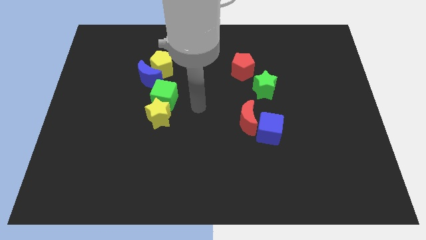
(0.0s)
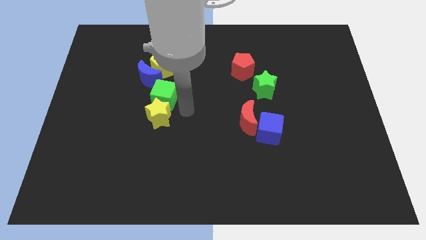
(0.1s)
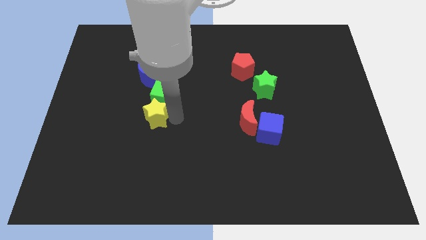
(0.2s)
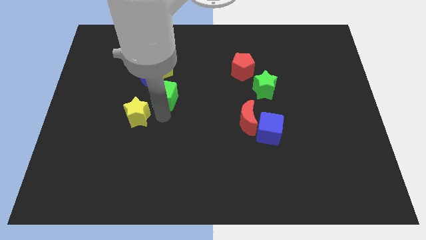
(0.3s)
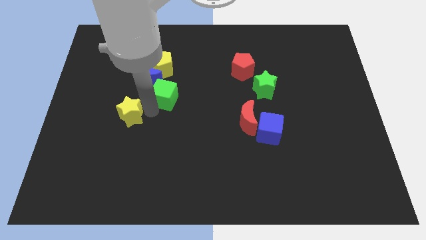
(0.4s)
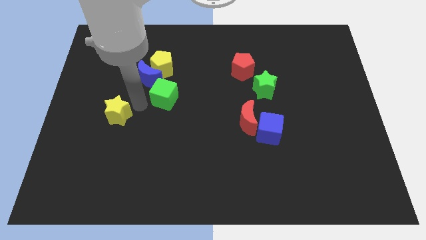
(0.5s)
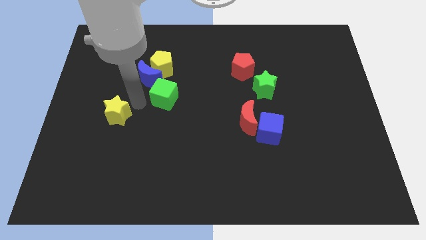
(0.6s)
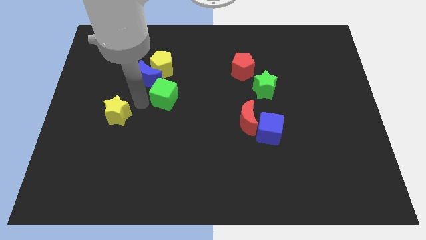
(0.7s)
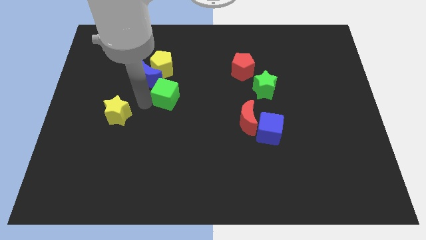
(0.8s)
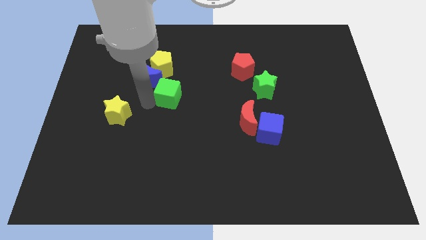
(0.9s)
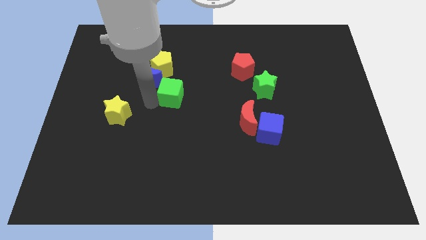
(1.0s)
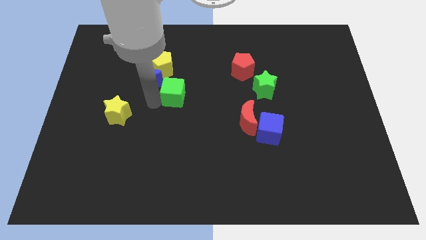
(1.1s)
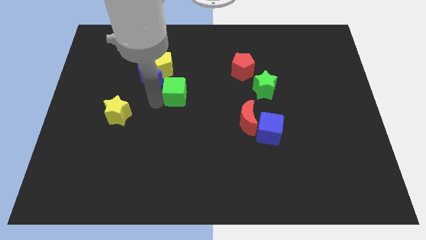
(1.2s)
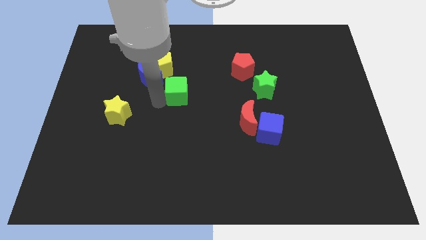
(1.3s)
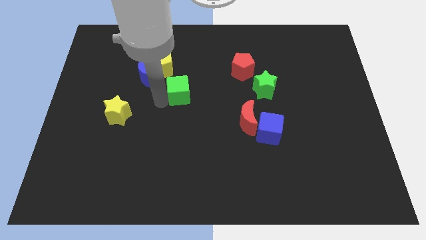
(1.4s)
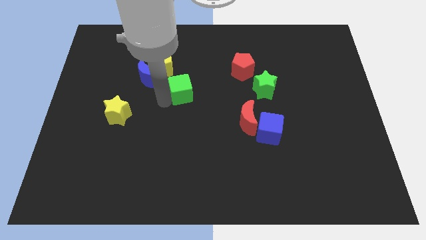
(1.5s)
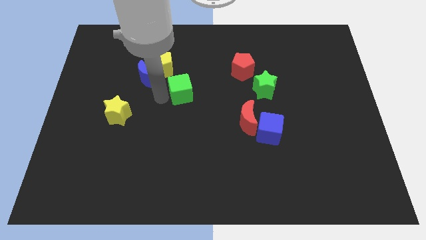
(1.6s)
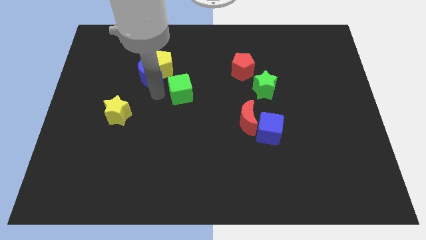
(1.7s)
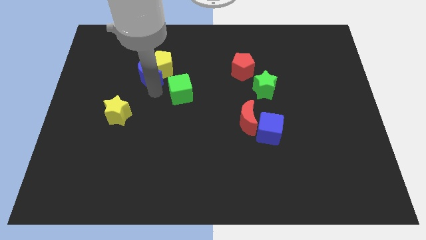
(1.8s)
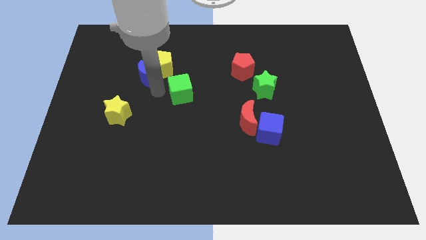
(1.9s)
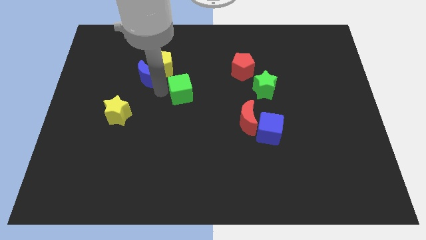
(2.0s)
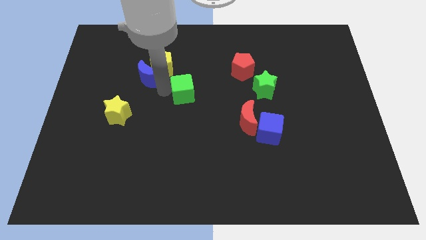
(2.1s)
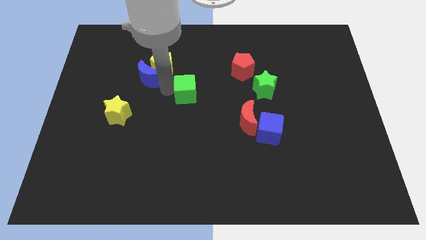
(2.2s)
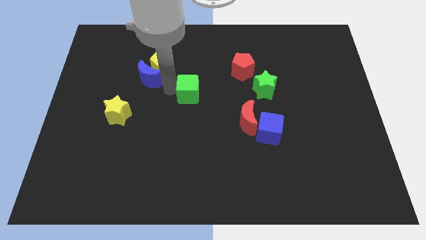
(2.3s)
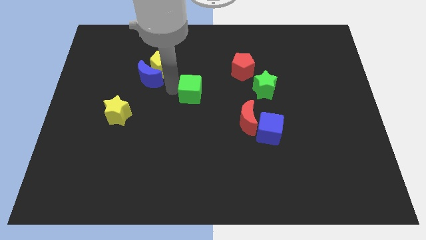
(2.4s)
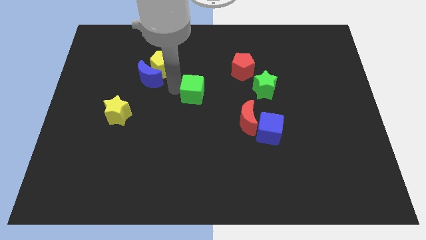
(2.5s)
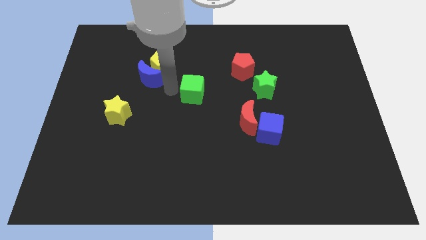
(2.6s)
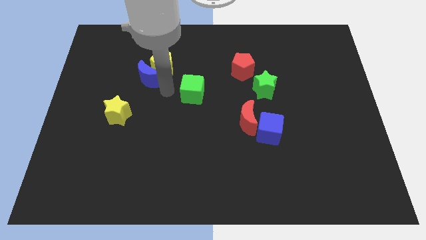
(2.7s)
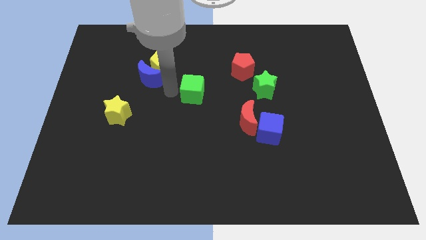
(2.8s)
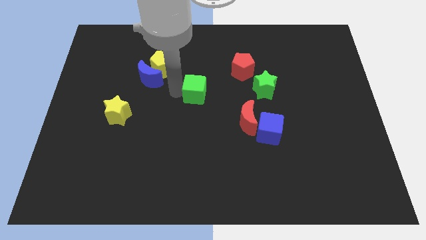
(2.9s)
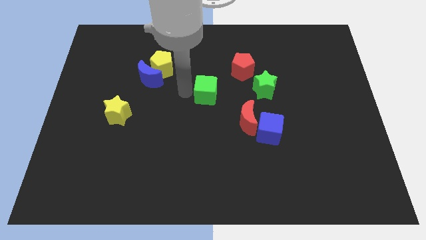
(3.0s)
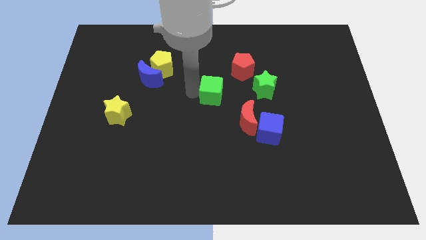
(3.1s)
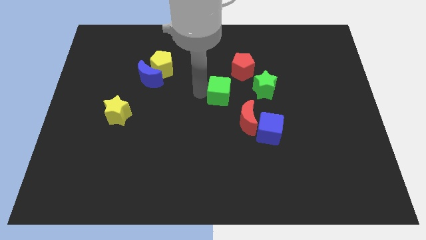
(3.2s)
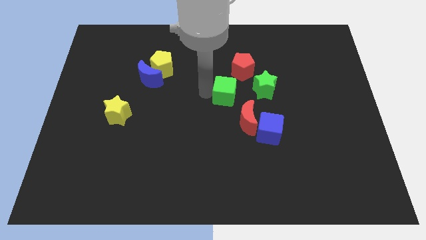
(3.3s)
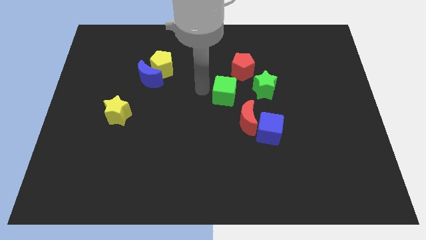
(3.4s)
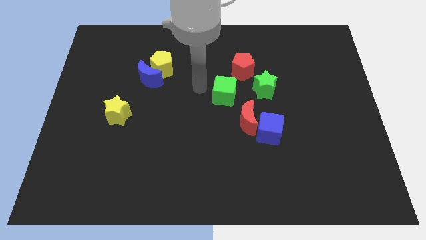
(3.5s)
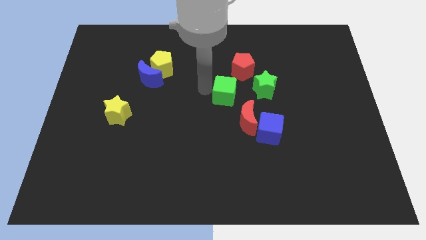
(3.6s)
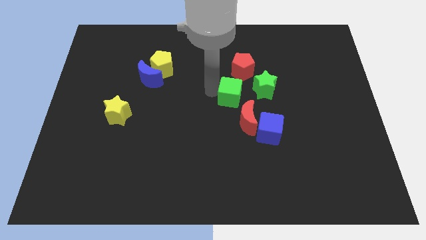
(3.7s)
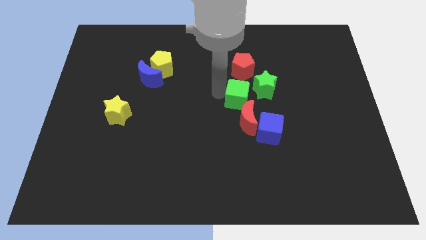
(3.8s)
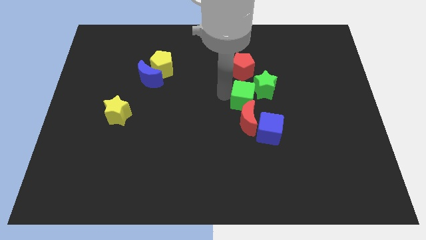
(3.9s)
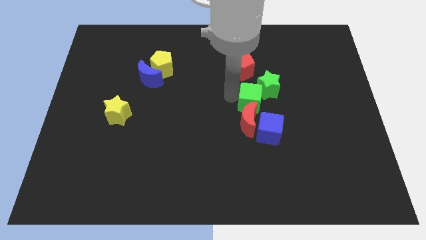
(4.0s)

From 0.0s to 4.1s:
slide the green cube right

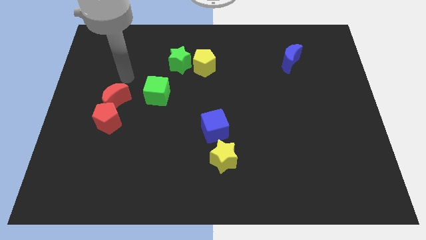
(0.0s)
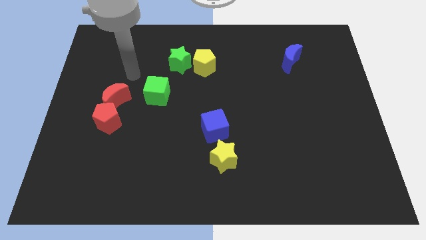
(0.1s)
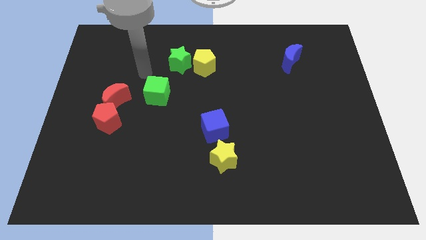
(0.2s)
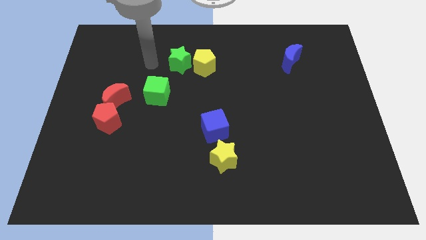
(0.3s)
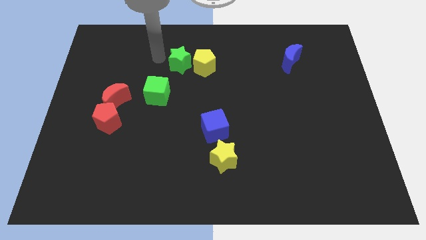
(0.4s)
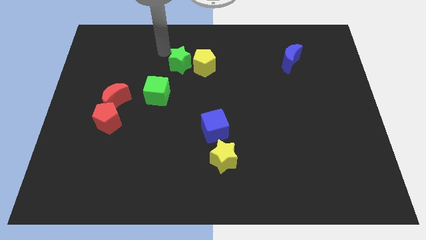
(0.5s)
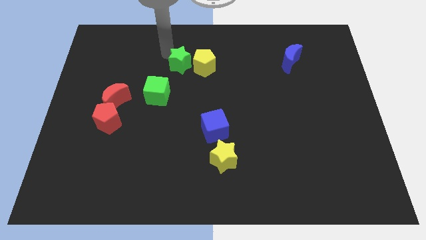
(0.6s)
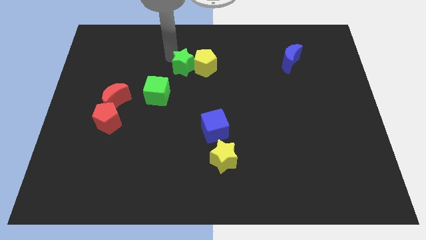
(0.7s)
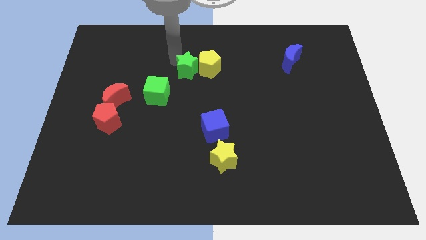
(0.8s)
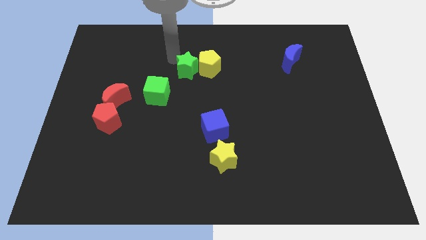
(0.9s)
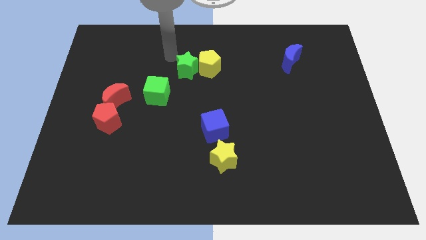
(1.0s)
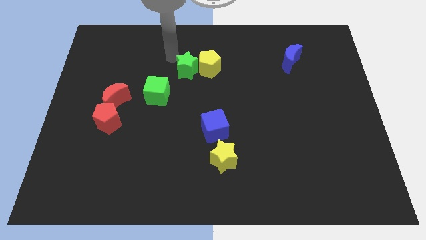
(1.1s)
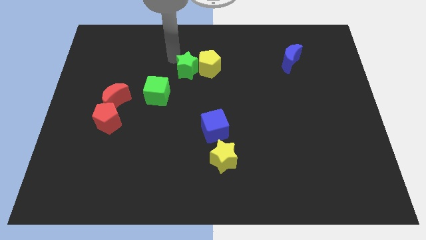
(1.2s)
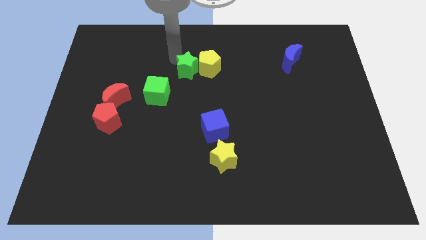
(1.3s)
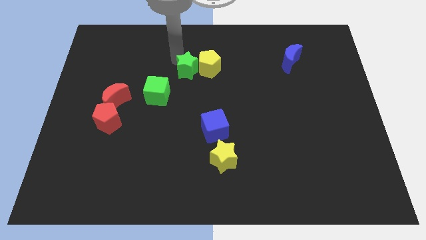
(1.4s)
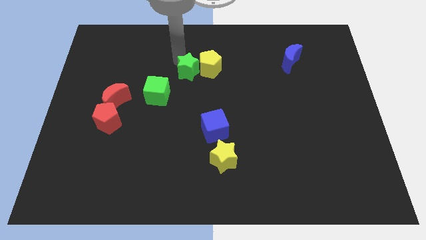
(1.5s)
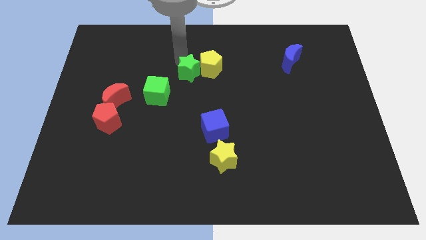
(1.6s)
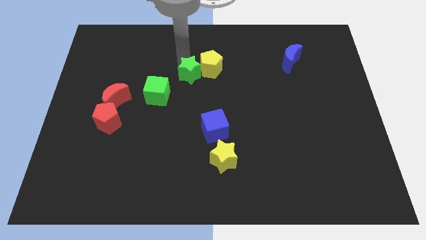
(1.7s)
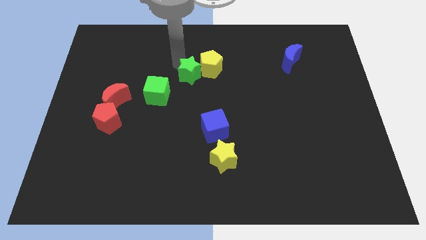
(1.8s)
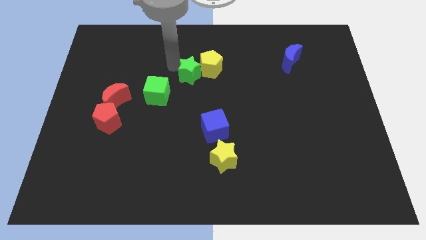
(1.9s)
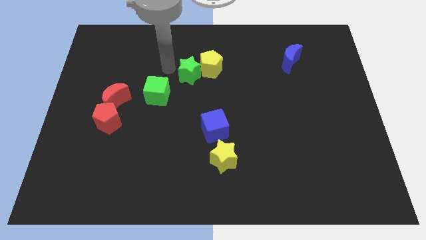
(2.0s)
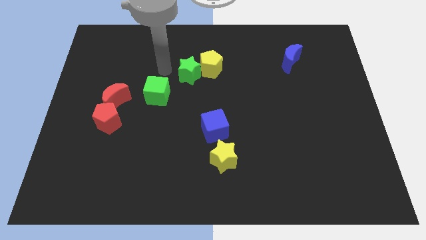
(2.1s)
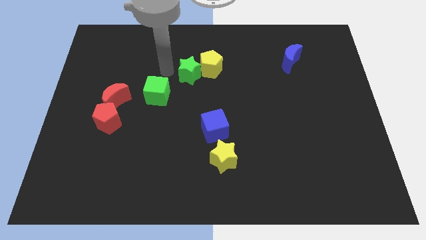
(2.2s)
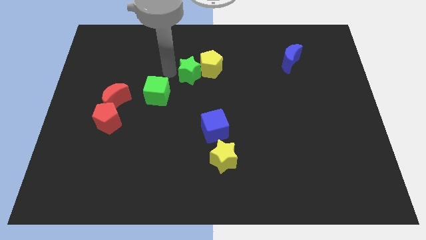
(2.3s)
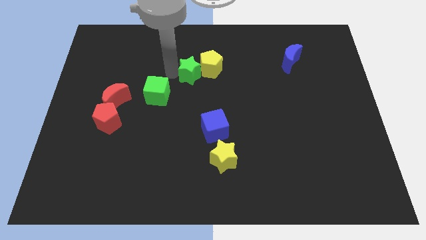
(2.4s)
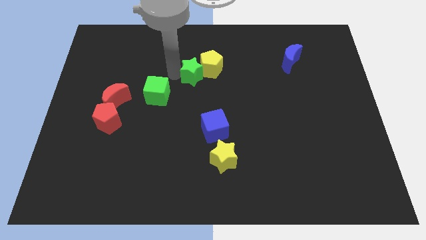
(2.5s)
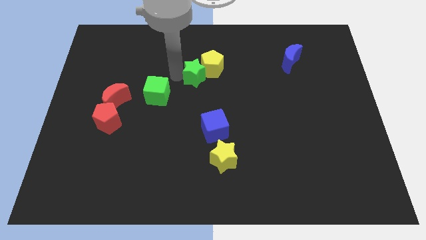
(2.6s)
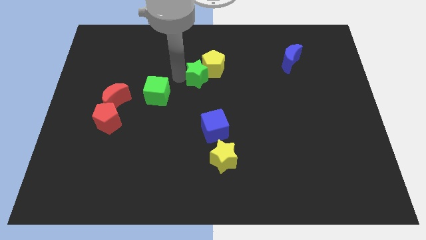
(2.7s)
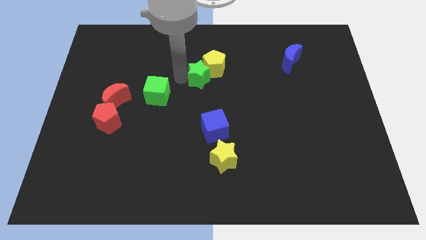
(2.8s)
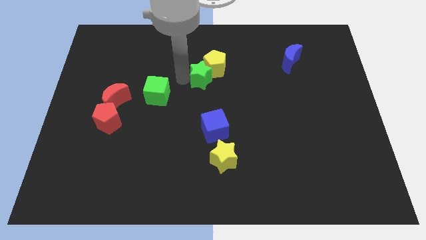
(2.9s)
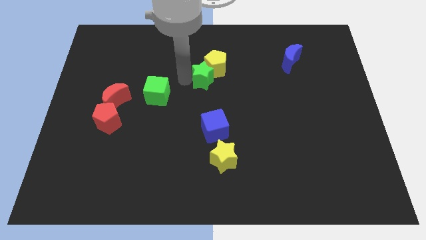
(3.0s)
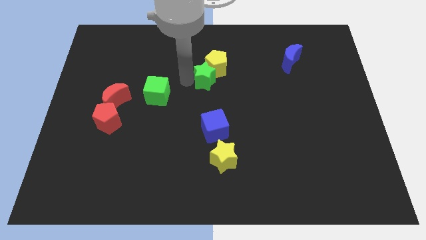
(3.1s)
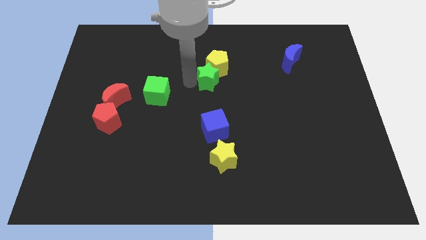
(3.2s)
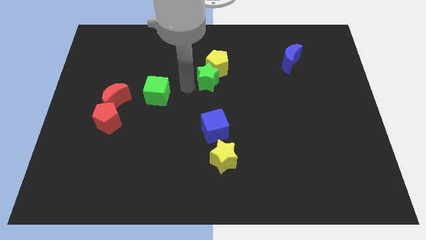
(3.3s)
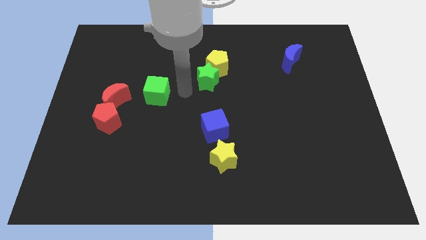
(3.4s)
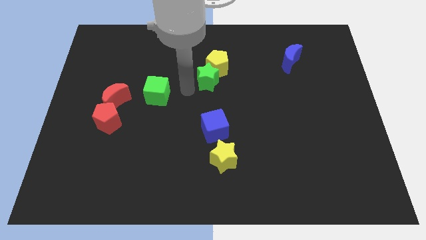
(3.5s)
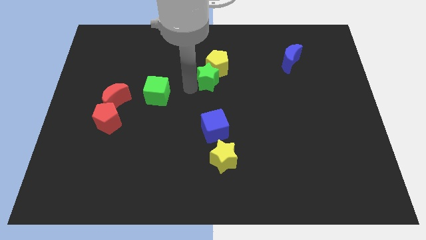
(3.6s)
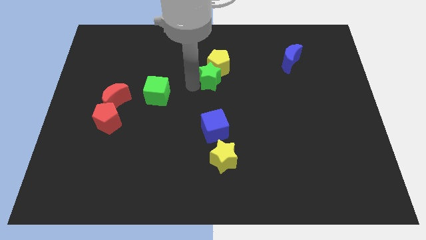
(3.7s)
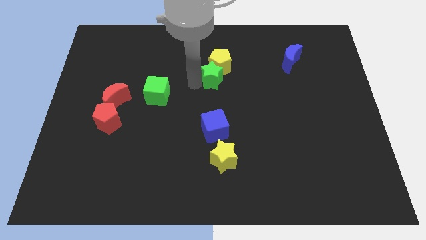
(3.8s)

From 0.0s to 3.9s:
slightly slide the green star right
